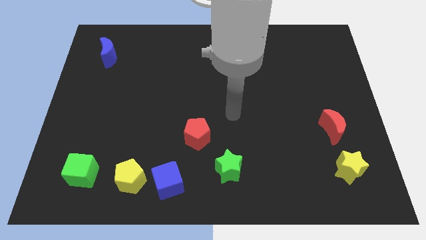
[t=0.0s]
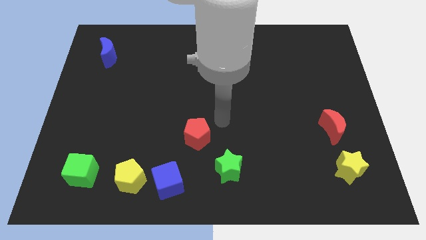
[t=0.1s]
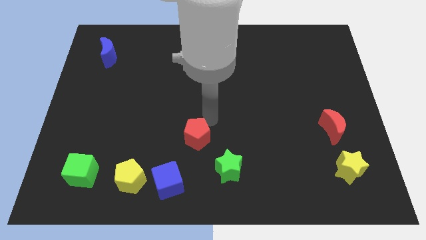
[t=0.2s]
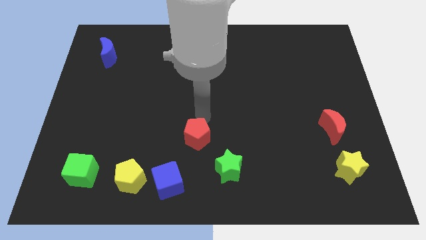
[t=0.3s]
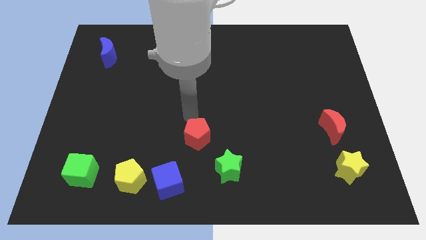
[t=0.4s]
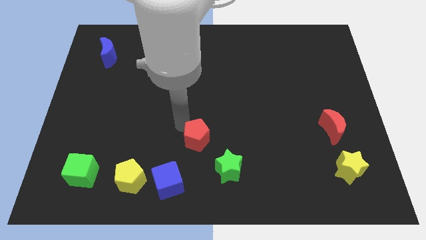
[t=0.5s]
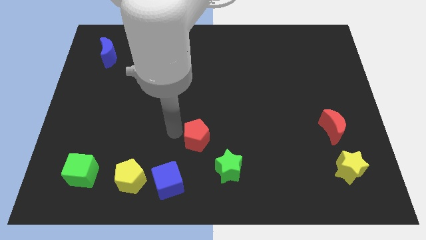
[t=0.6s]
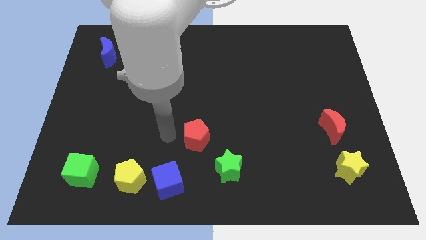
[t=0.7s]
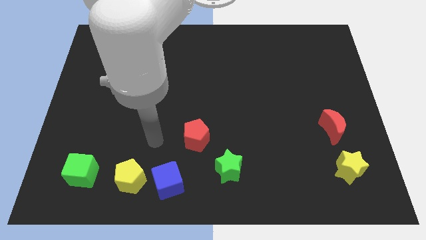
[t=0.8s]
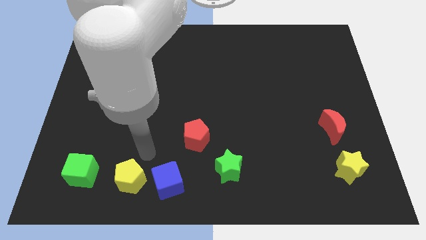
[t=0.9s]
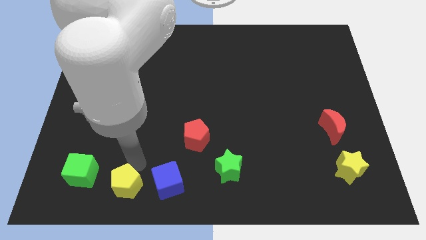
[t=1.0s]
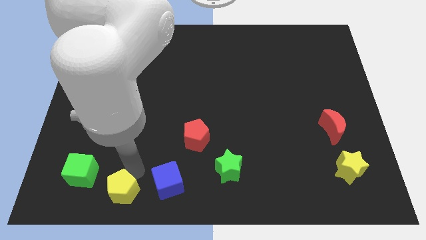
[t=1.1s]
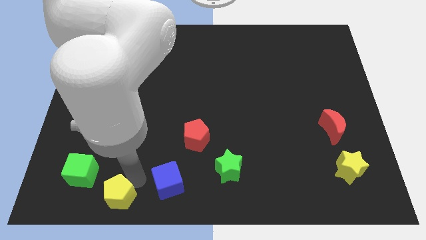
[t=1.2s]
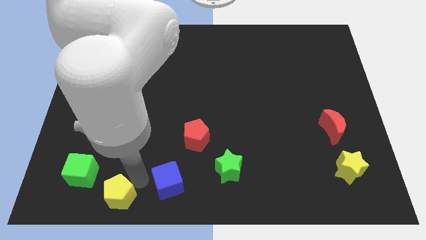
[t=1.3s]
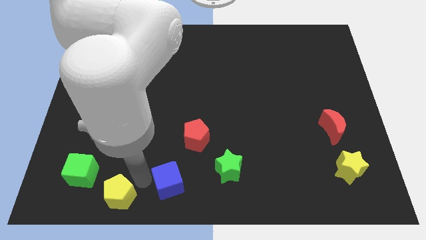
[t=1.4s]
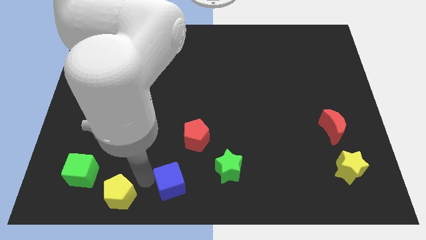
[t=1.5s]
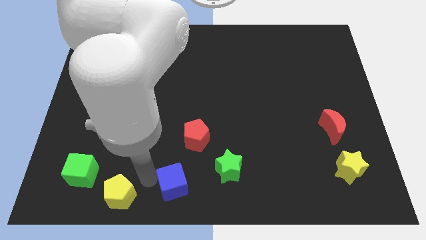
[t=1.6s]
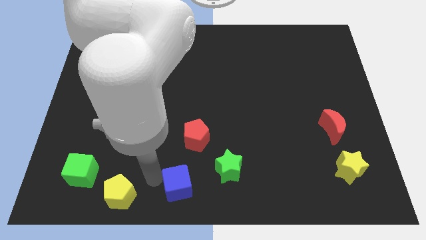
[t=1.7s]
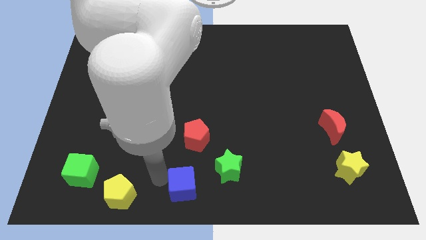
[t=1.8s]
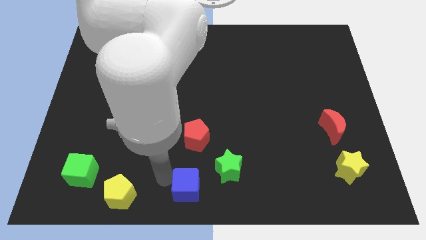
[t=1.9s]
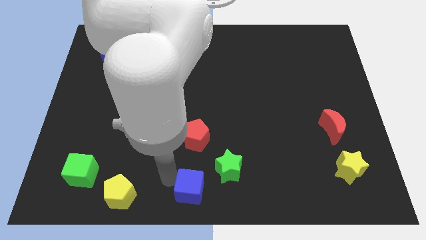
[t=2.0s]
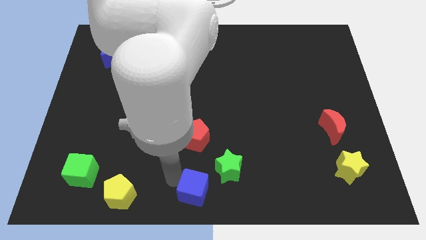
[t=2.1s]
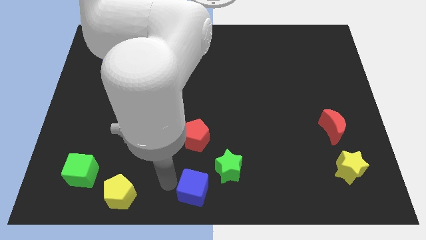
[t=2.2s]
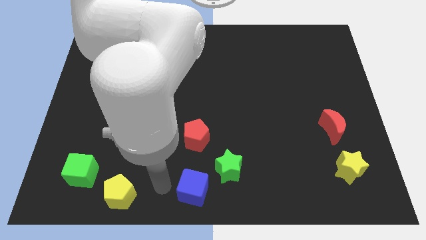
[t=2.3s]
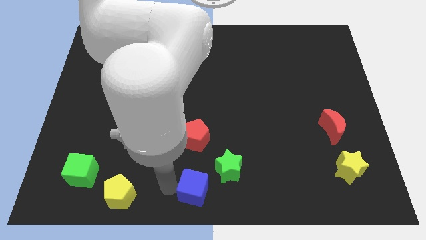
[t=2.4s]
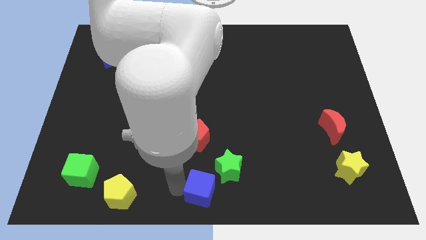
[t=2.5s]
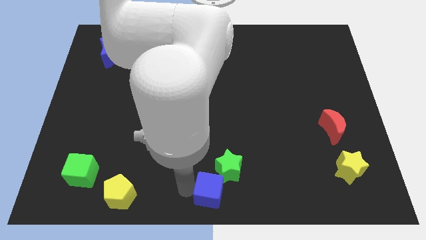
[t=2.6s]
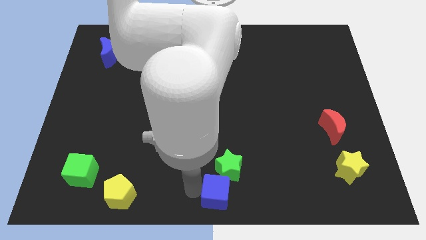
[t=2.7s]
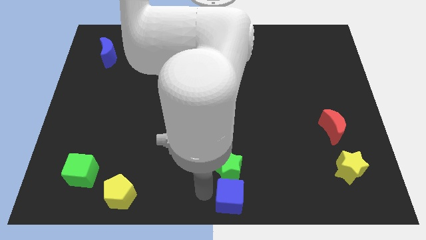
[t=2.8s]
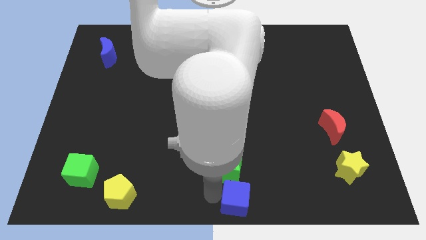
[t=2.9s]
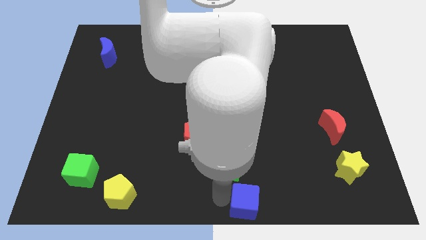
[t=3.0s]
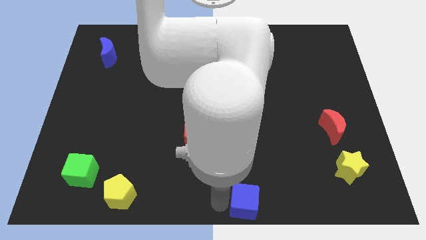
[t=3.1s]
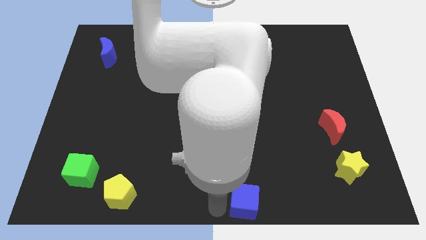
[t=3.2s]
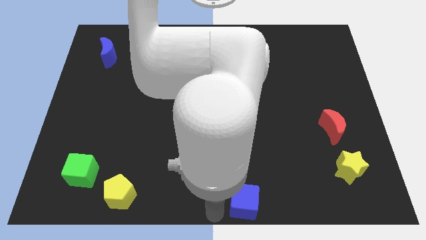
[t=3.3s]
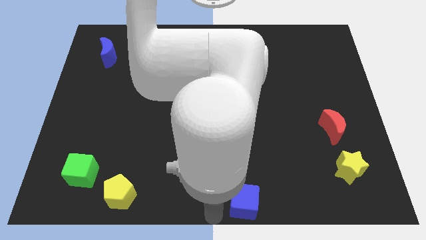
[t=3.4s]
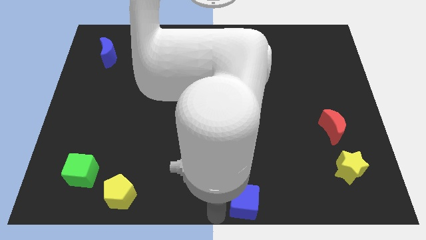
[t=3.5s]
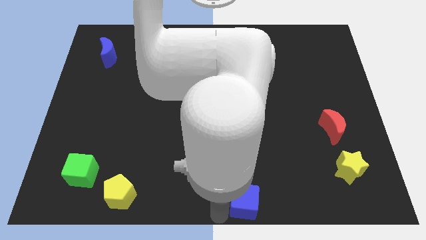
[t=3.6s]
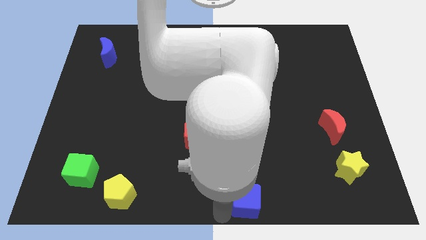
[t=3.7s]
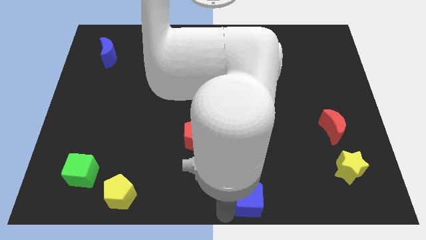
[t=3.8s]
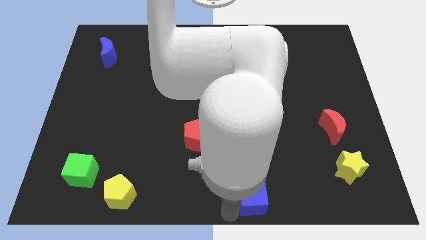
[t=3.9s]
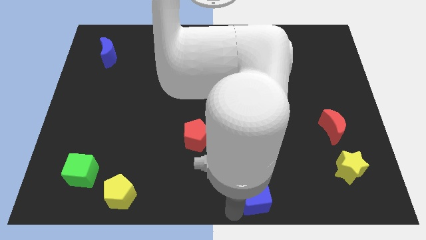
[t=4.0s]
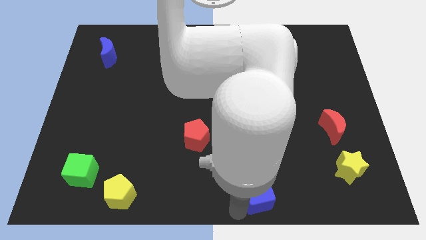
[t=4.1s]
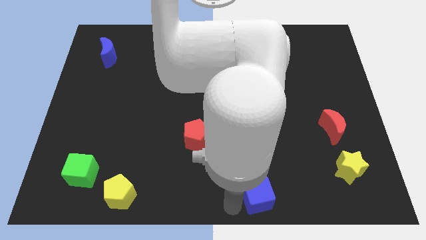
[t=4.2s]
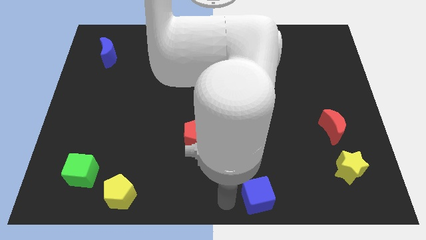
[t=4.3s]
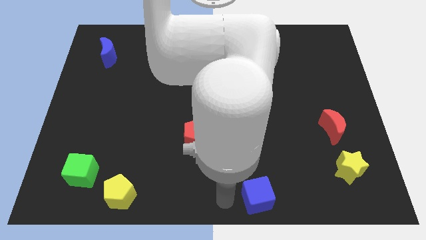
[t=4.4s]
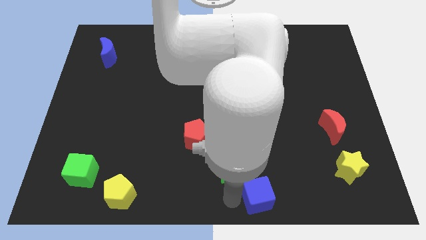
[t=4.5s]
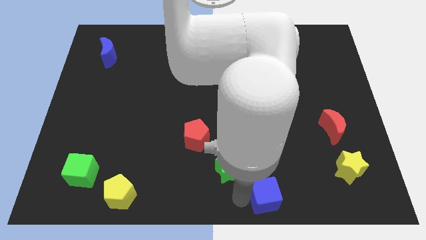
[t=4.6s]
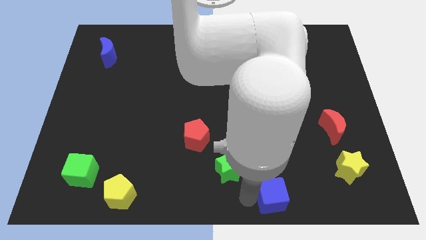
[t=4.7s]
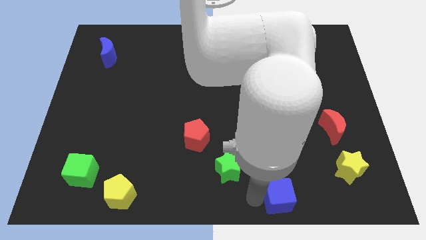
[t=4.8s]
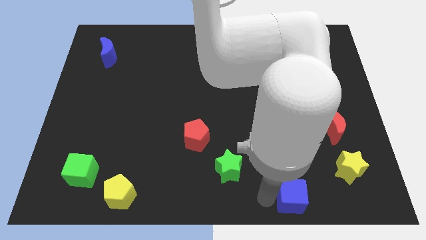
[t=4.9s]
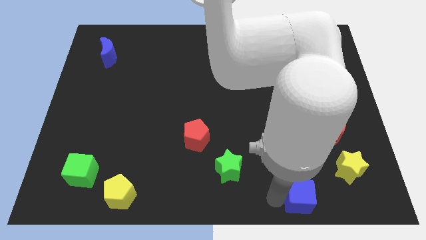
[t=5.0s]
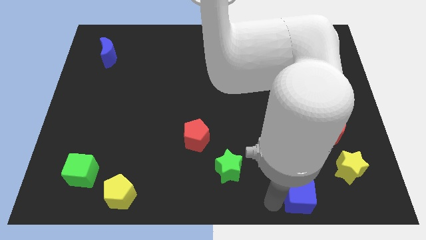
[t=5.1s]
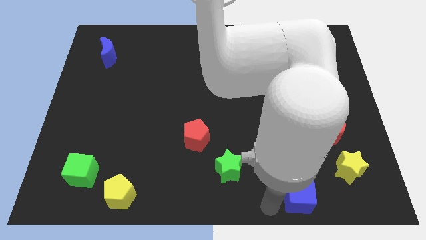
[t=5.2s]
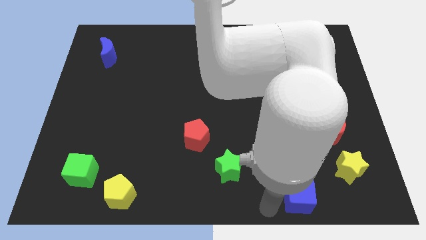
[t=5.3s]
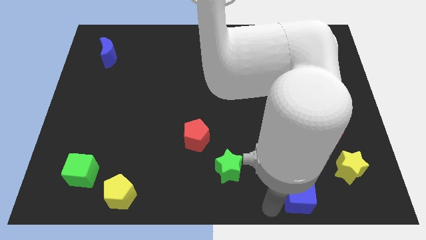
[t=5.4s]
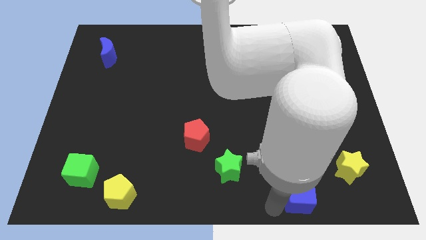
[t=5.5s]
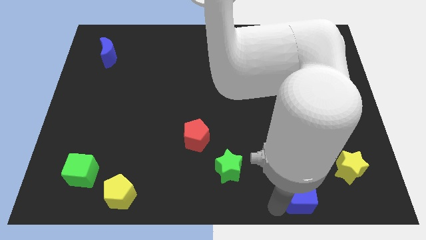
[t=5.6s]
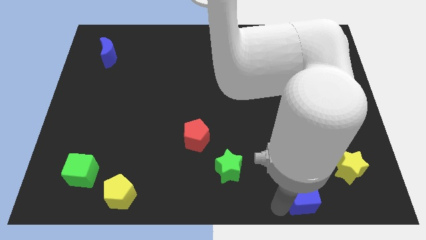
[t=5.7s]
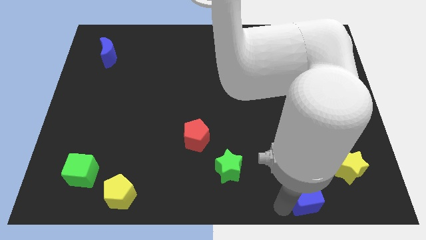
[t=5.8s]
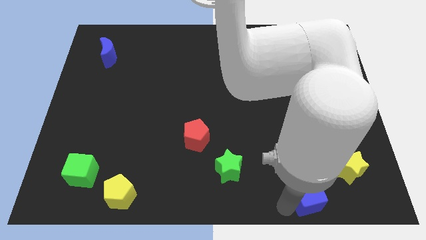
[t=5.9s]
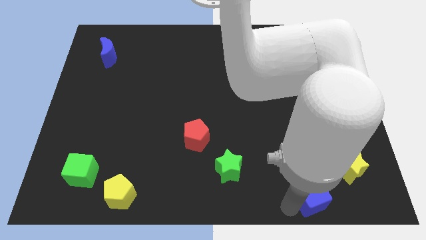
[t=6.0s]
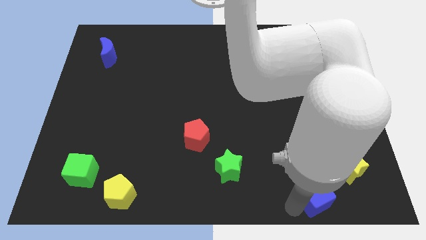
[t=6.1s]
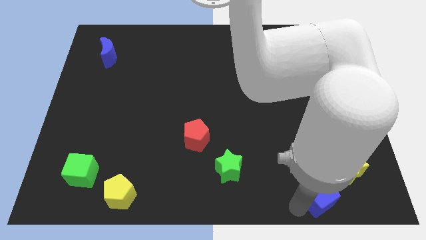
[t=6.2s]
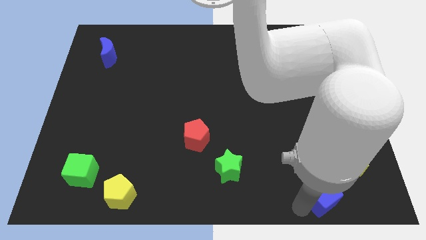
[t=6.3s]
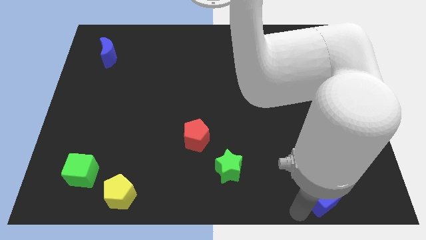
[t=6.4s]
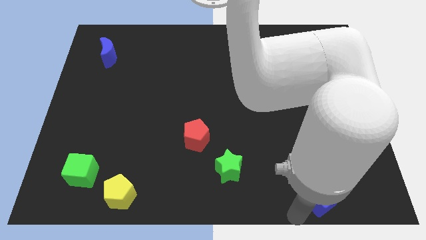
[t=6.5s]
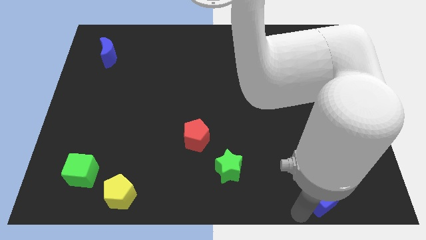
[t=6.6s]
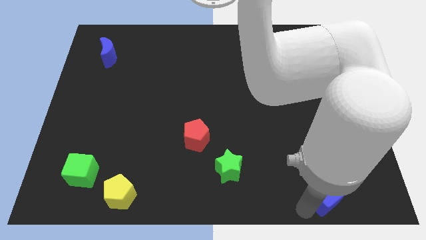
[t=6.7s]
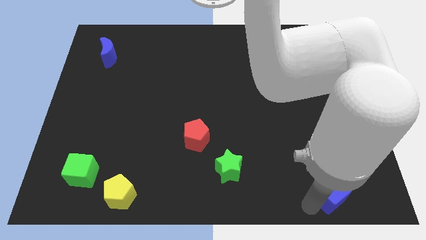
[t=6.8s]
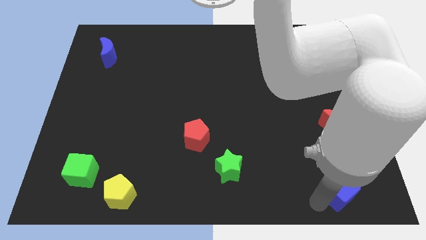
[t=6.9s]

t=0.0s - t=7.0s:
push the blue cube to the bottom of the red moon

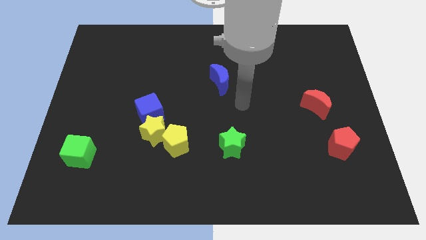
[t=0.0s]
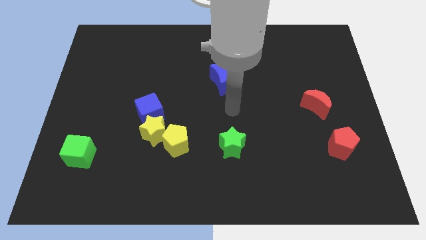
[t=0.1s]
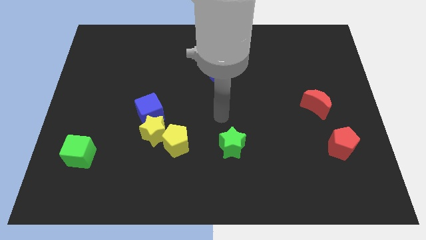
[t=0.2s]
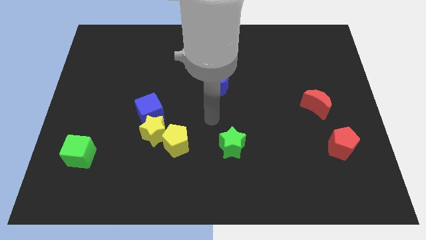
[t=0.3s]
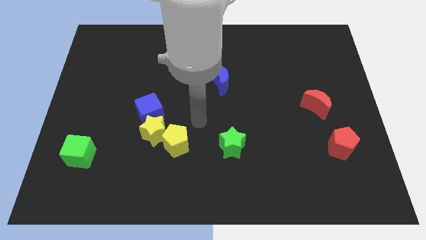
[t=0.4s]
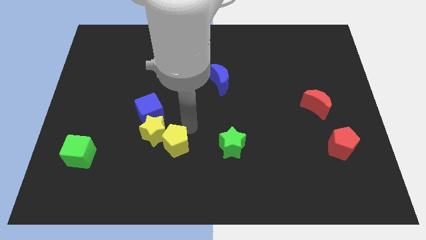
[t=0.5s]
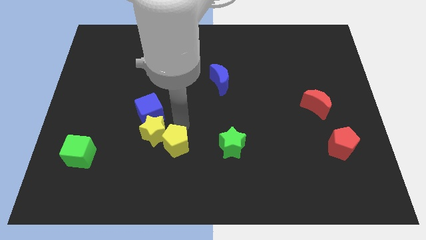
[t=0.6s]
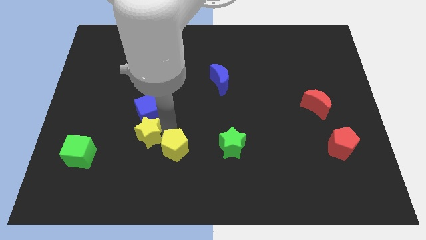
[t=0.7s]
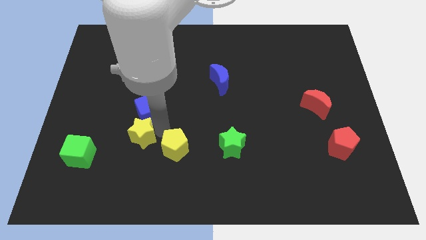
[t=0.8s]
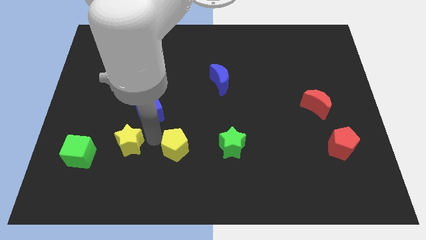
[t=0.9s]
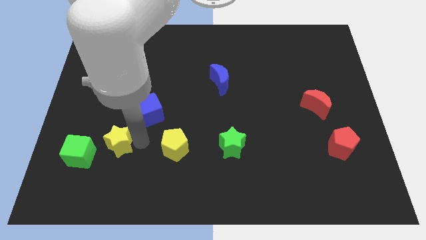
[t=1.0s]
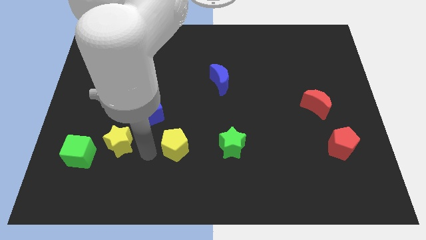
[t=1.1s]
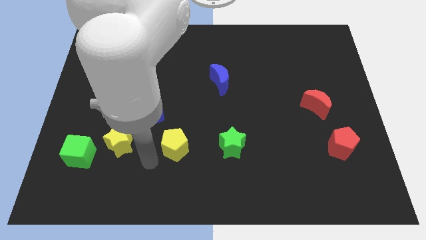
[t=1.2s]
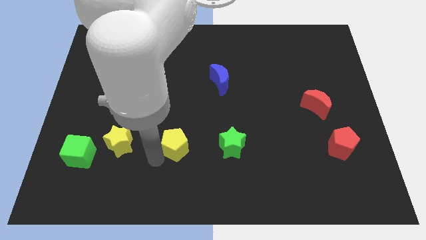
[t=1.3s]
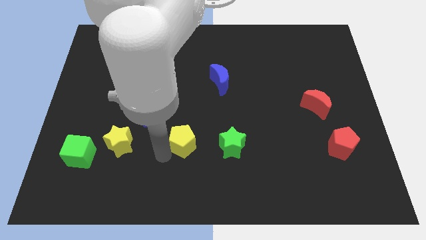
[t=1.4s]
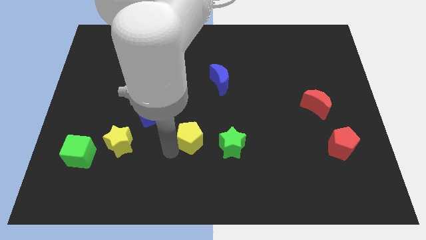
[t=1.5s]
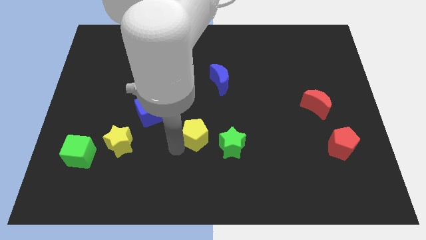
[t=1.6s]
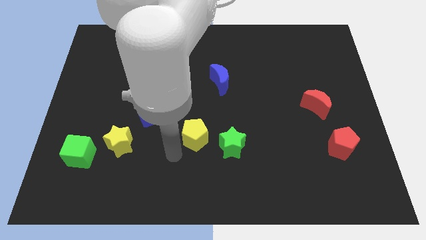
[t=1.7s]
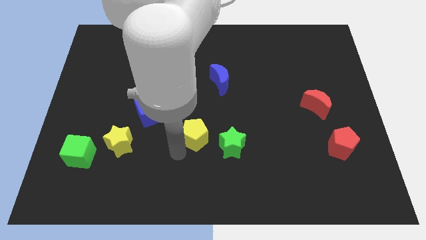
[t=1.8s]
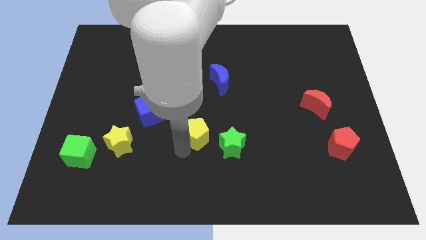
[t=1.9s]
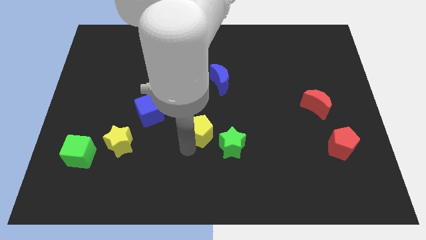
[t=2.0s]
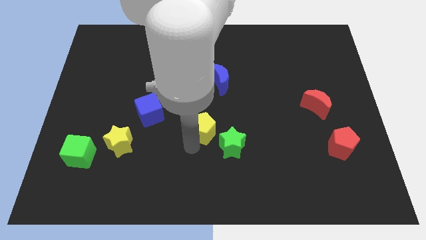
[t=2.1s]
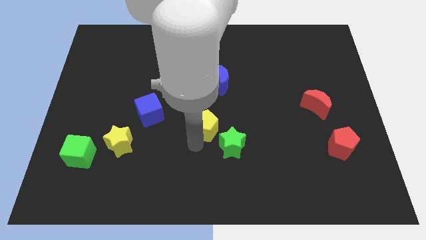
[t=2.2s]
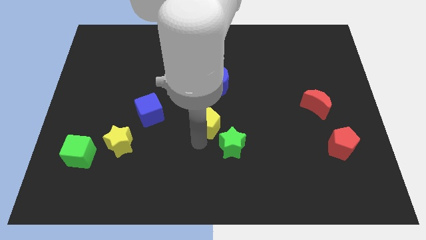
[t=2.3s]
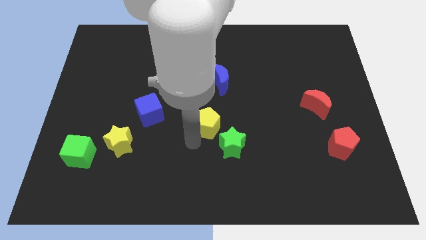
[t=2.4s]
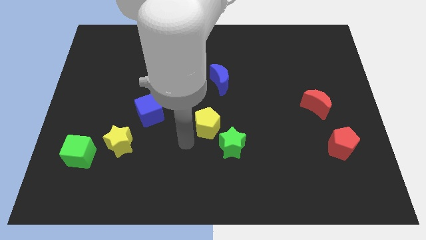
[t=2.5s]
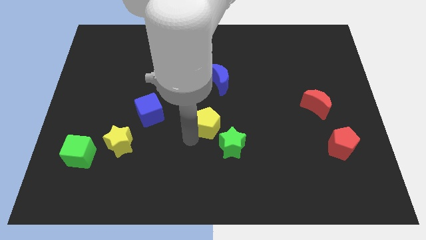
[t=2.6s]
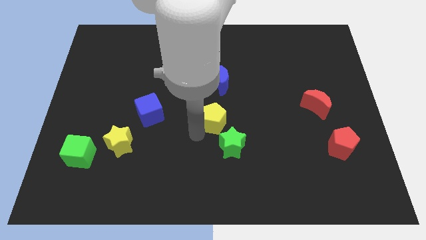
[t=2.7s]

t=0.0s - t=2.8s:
slide the yellow pentagon above the green star
